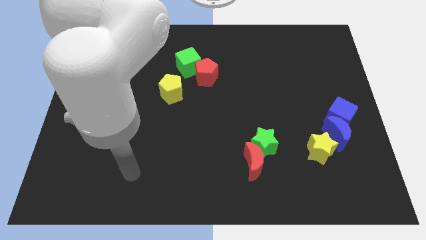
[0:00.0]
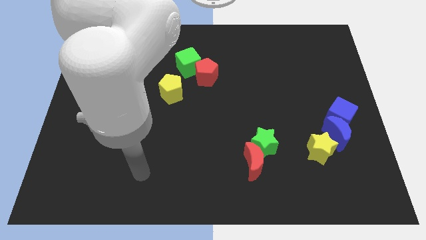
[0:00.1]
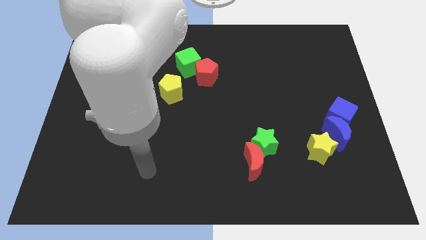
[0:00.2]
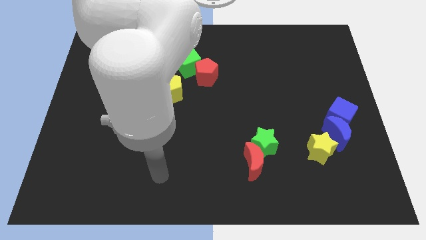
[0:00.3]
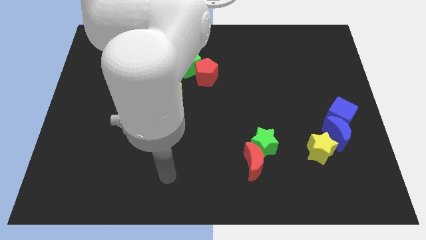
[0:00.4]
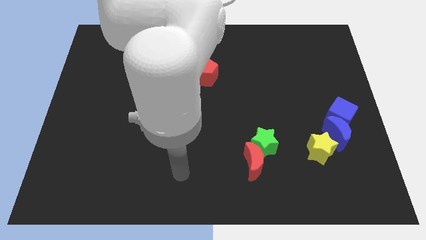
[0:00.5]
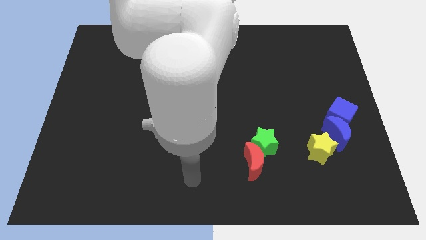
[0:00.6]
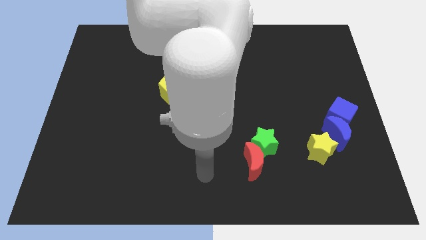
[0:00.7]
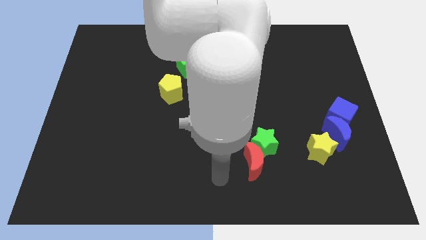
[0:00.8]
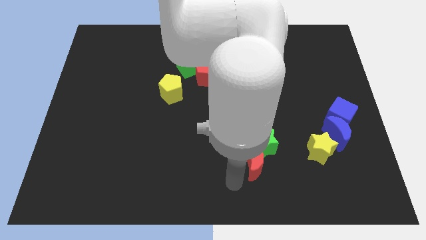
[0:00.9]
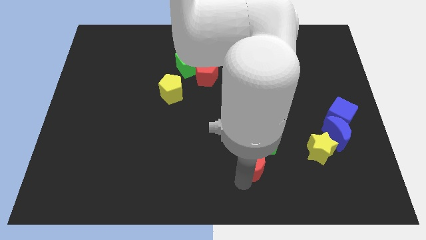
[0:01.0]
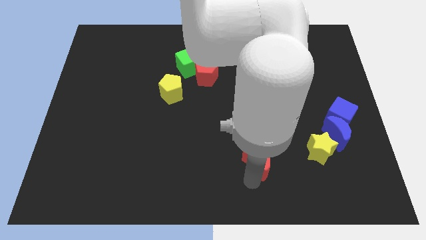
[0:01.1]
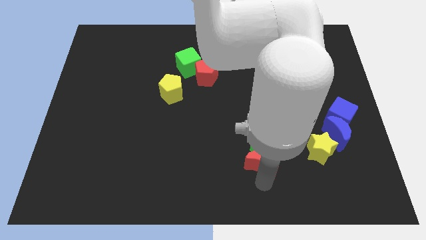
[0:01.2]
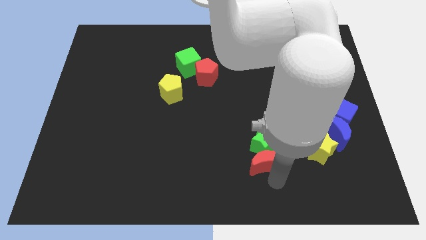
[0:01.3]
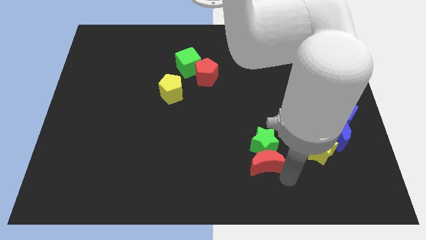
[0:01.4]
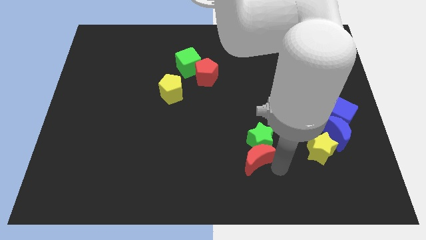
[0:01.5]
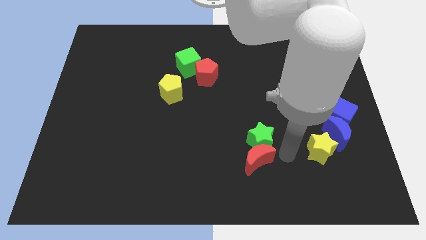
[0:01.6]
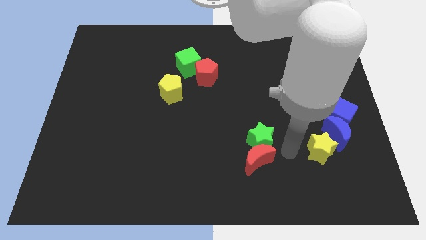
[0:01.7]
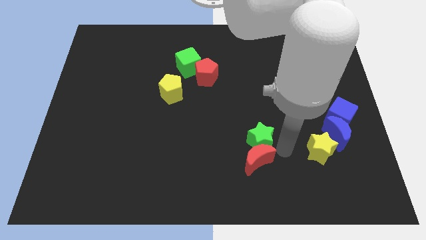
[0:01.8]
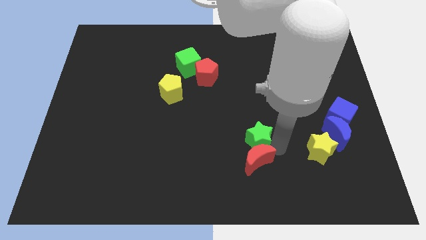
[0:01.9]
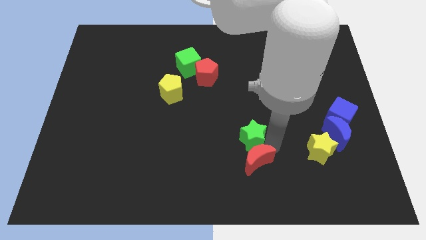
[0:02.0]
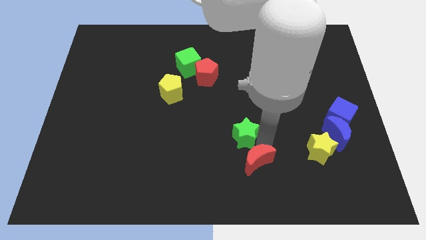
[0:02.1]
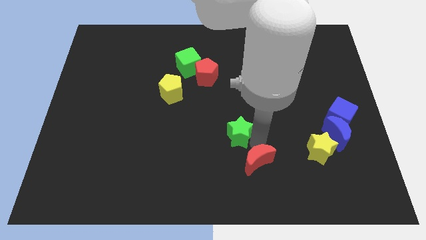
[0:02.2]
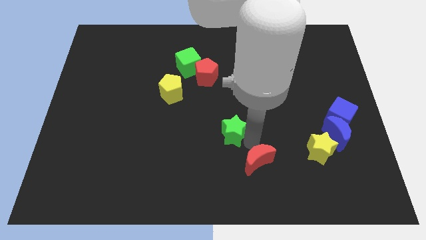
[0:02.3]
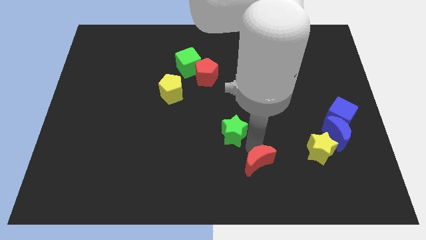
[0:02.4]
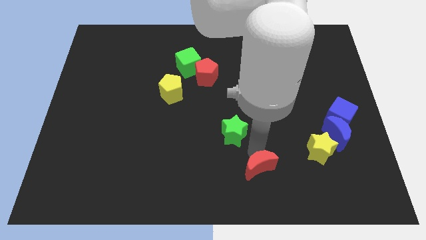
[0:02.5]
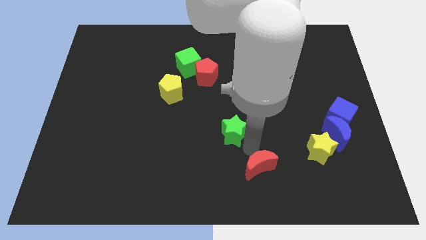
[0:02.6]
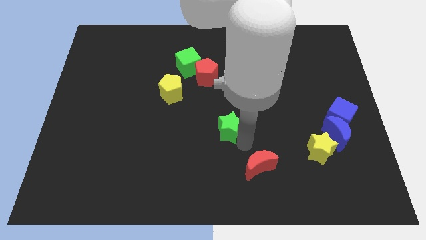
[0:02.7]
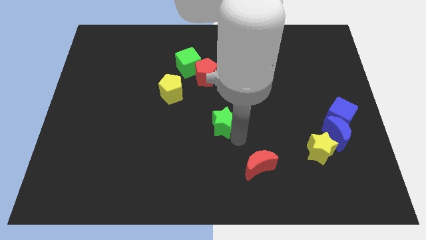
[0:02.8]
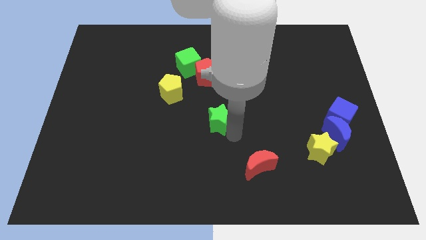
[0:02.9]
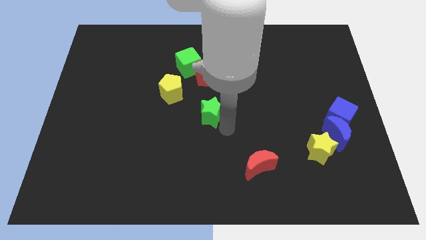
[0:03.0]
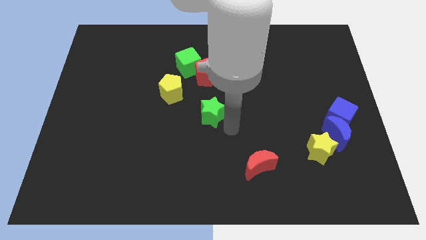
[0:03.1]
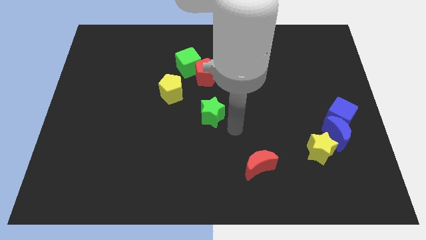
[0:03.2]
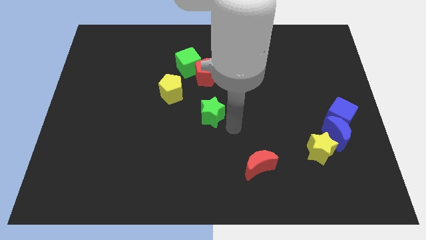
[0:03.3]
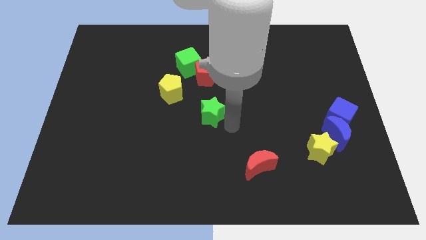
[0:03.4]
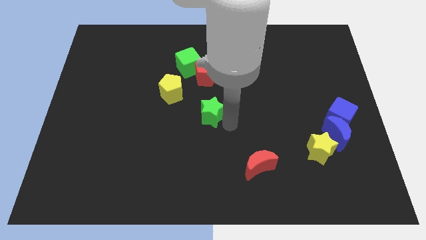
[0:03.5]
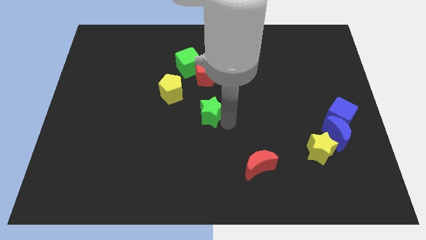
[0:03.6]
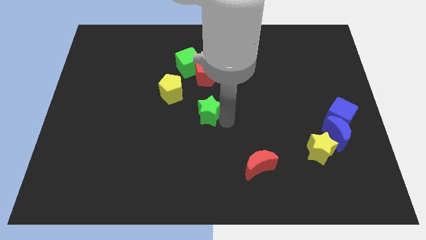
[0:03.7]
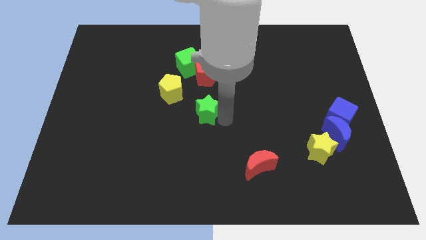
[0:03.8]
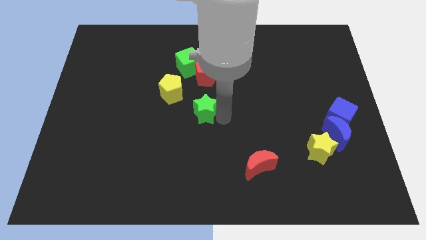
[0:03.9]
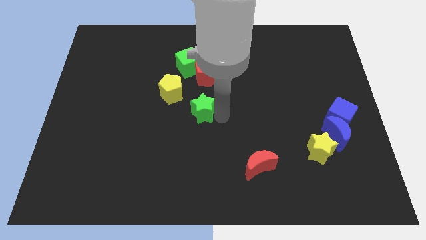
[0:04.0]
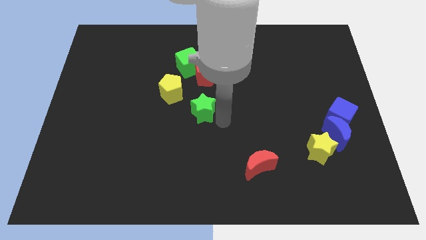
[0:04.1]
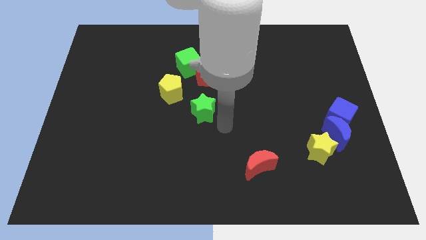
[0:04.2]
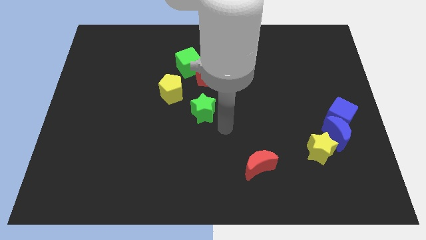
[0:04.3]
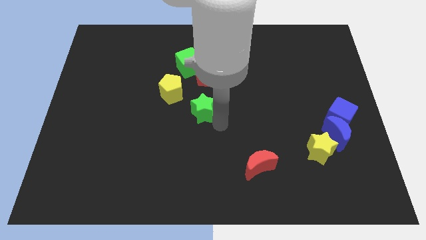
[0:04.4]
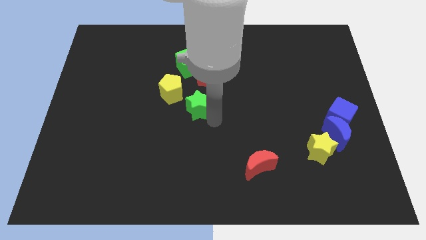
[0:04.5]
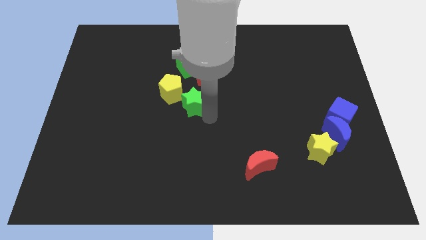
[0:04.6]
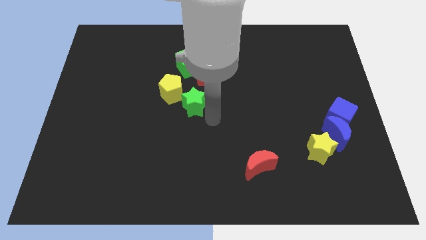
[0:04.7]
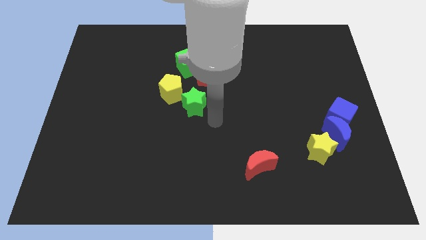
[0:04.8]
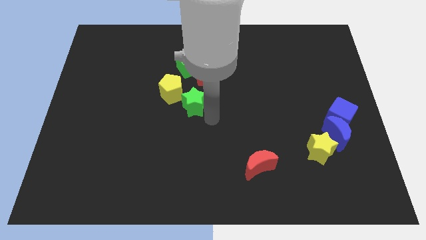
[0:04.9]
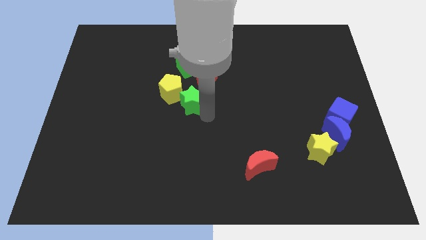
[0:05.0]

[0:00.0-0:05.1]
push the green star towards the yellow pentagon

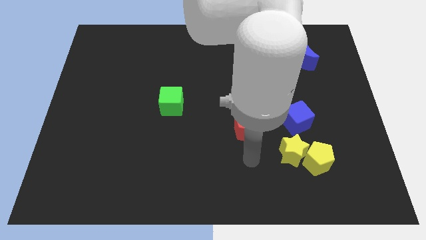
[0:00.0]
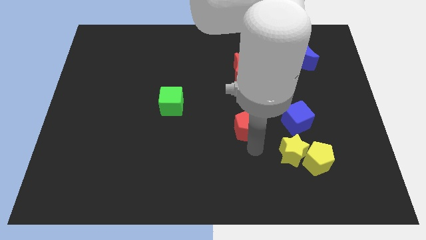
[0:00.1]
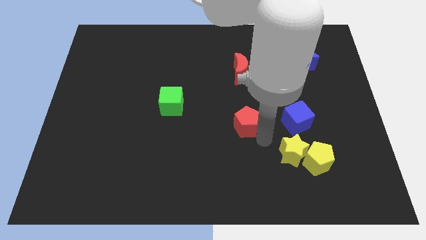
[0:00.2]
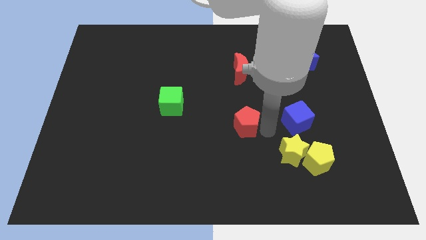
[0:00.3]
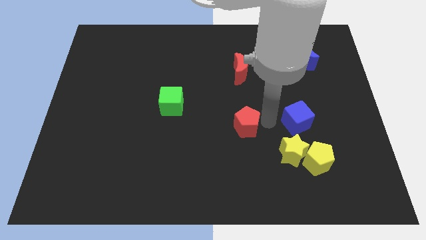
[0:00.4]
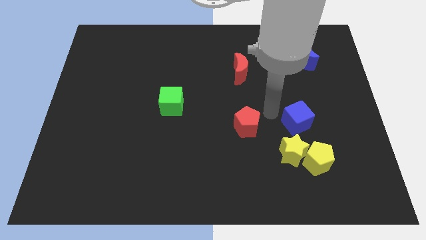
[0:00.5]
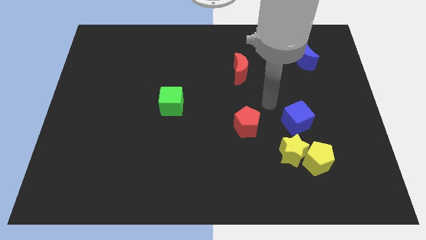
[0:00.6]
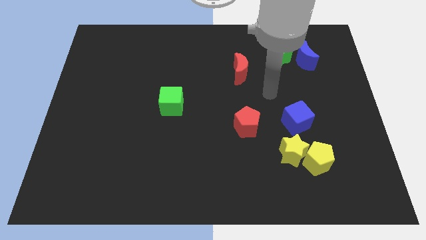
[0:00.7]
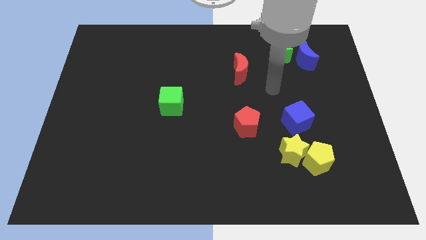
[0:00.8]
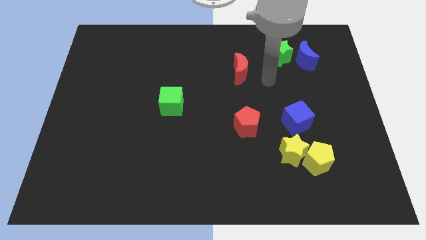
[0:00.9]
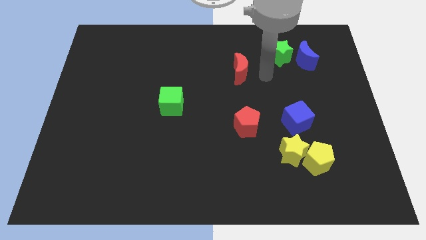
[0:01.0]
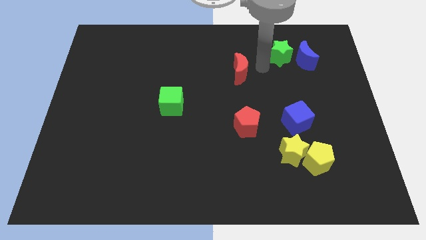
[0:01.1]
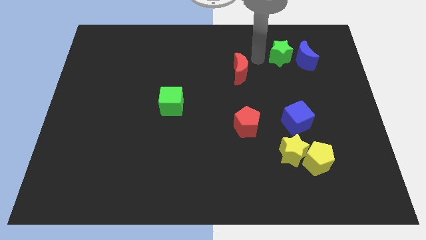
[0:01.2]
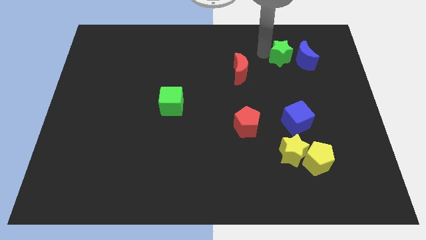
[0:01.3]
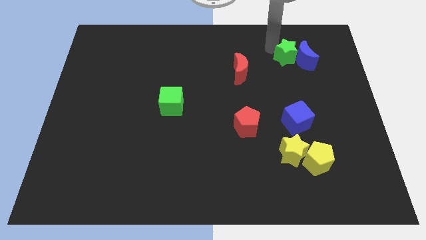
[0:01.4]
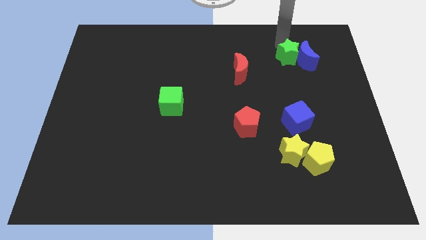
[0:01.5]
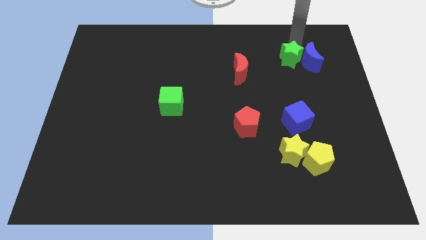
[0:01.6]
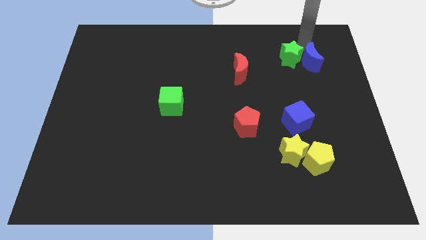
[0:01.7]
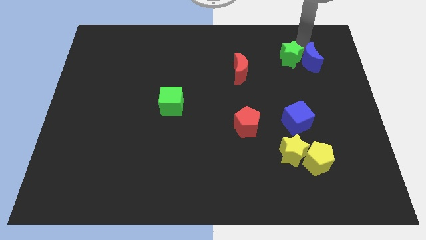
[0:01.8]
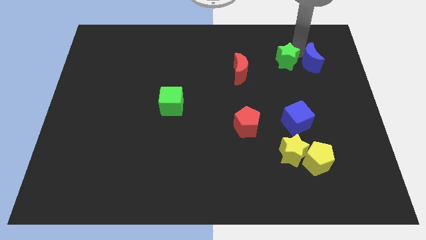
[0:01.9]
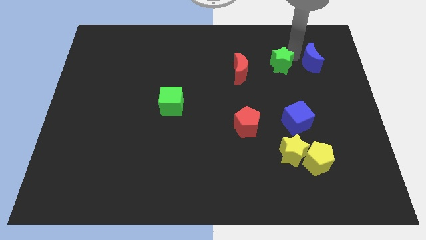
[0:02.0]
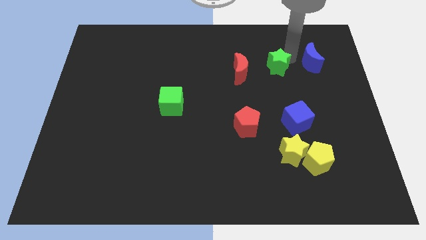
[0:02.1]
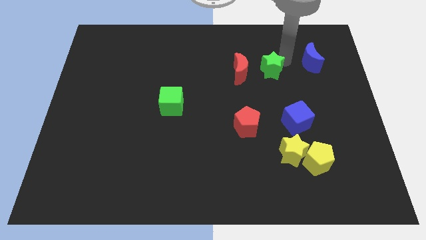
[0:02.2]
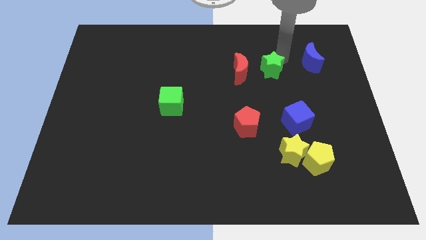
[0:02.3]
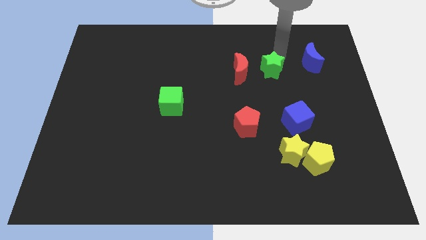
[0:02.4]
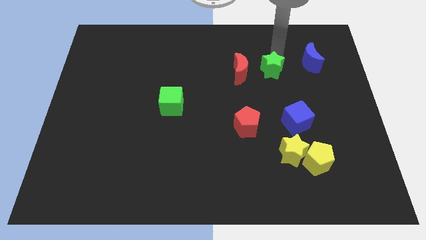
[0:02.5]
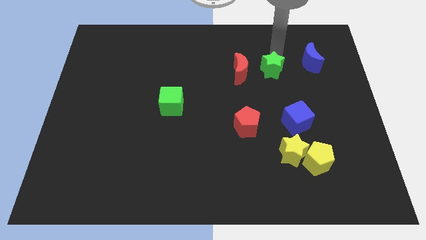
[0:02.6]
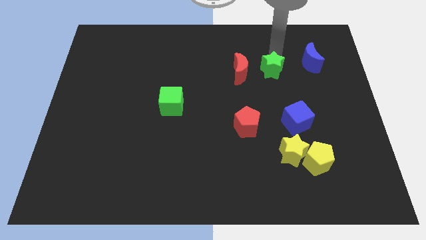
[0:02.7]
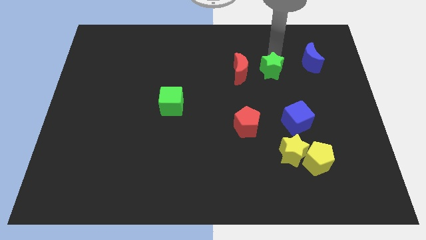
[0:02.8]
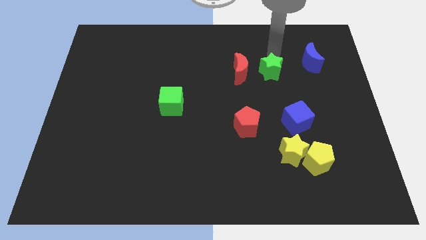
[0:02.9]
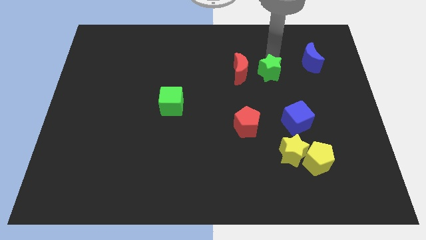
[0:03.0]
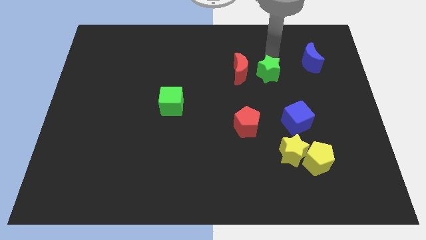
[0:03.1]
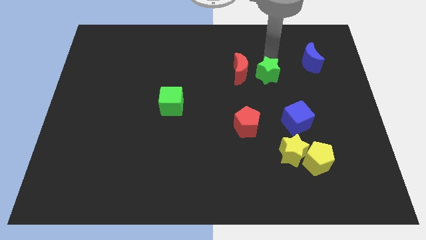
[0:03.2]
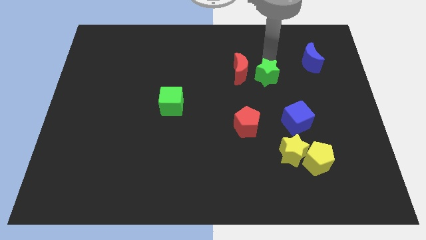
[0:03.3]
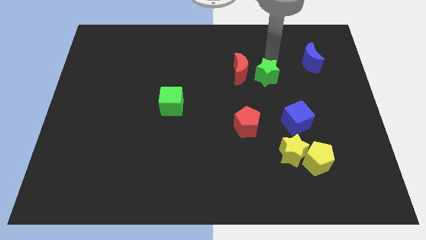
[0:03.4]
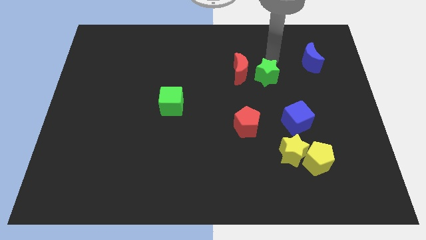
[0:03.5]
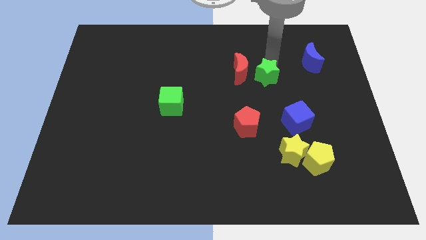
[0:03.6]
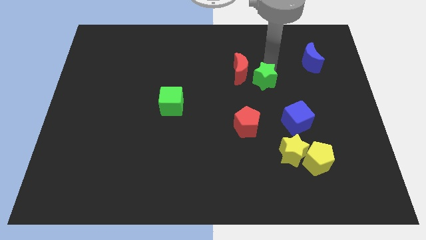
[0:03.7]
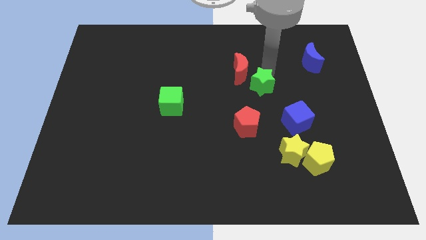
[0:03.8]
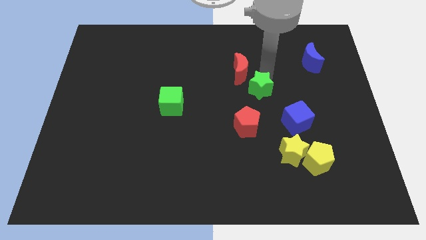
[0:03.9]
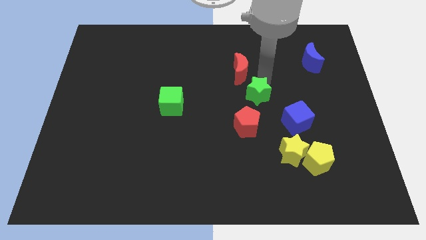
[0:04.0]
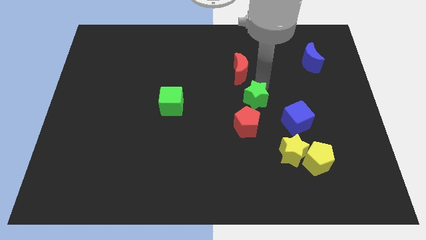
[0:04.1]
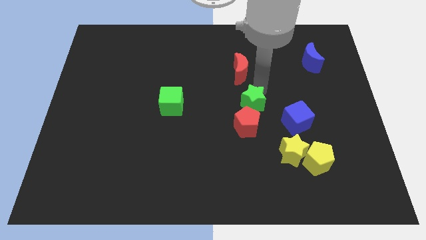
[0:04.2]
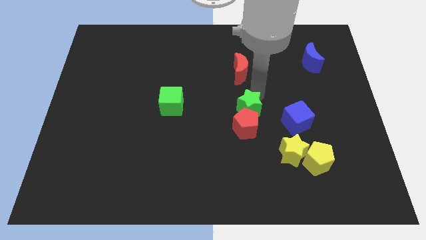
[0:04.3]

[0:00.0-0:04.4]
put the green star close to the red pentagon
